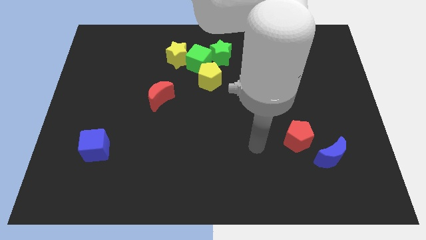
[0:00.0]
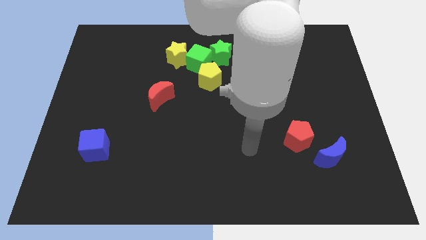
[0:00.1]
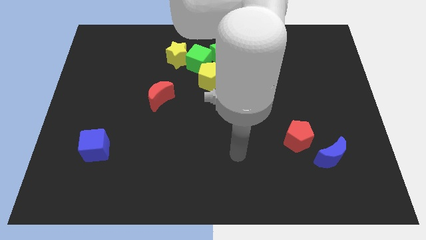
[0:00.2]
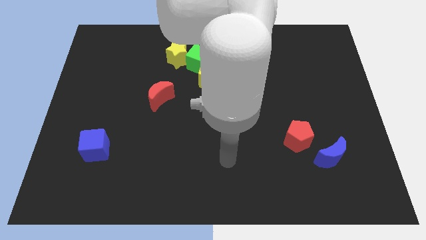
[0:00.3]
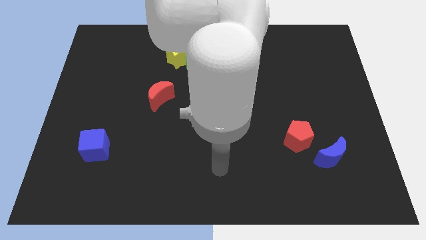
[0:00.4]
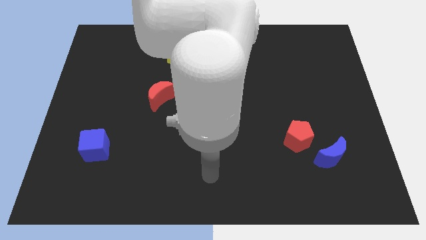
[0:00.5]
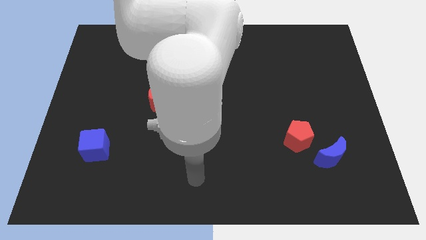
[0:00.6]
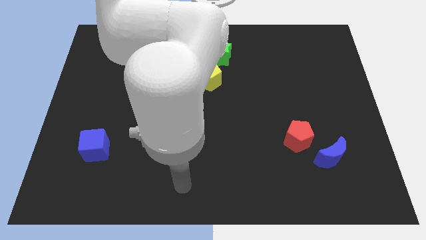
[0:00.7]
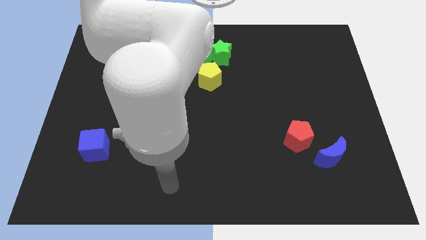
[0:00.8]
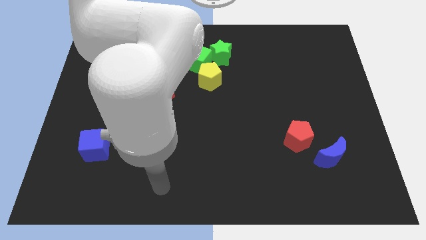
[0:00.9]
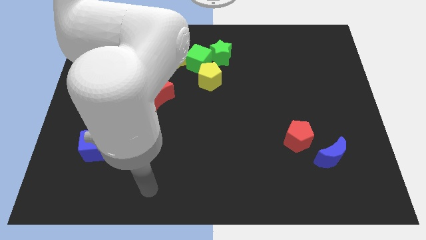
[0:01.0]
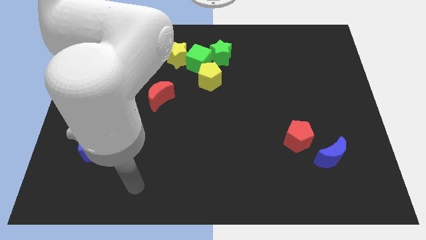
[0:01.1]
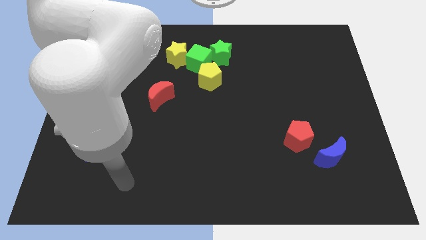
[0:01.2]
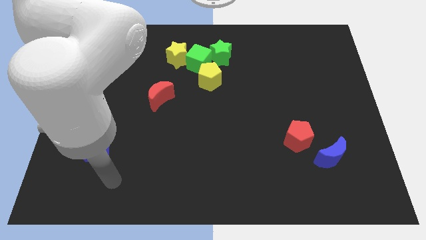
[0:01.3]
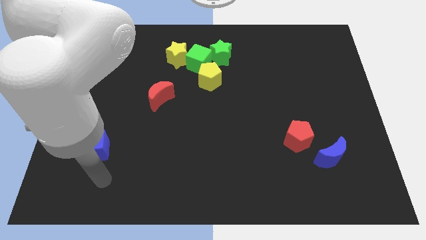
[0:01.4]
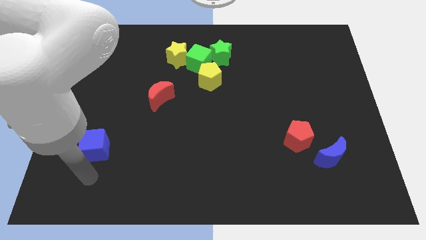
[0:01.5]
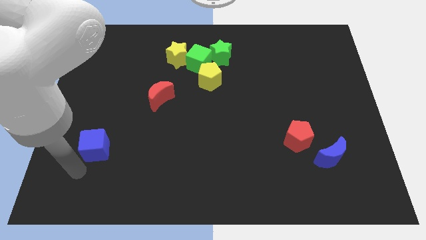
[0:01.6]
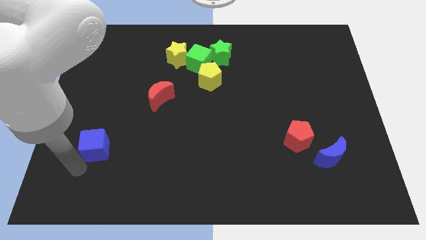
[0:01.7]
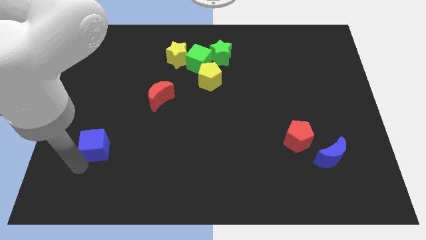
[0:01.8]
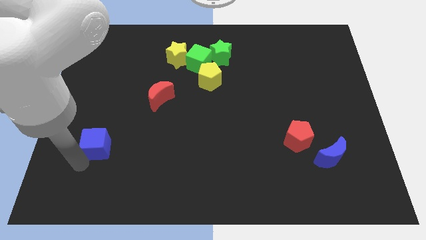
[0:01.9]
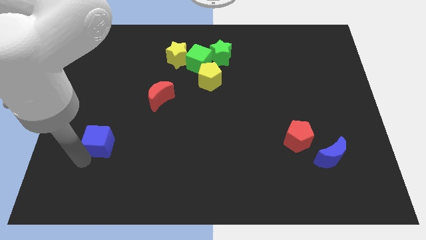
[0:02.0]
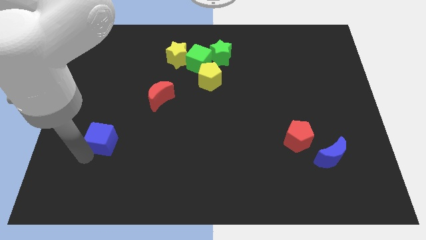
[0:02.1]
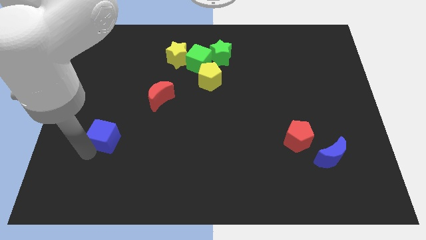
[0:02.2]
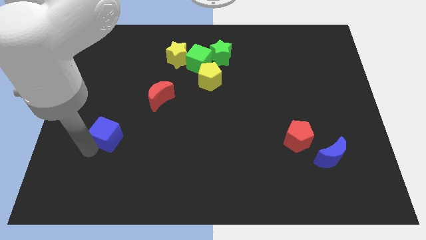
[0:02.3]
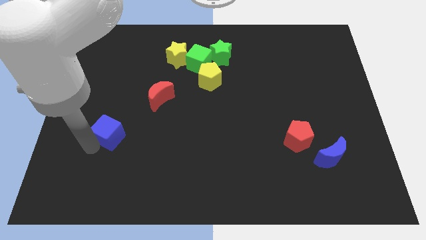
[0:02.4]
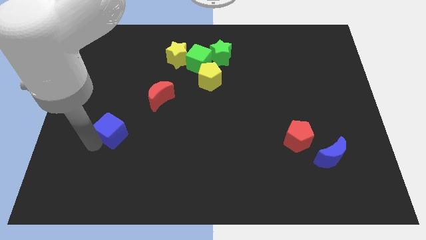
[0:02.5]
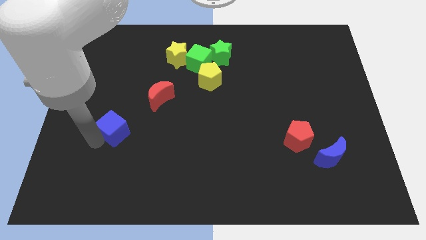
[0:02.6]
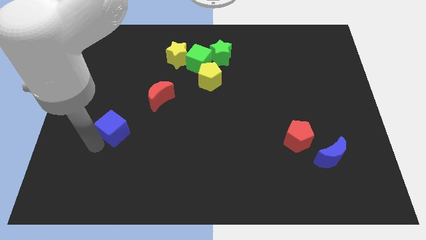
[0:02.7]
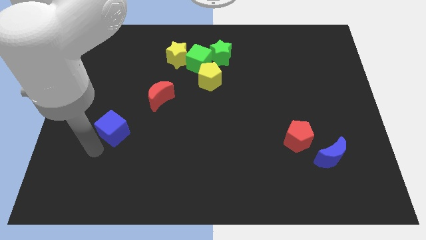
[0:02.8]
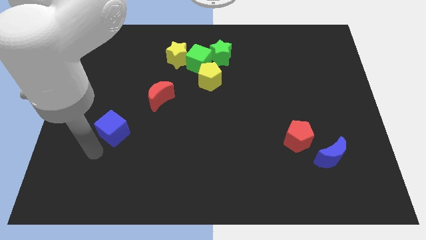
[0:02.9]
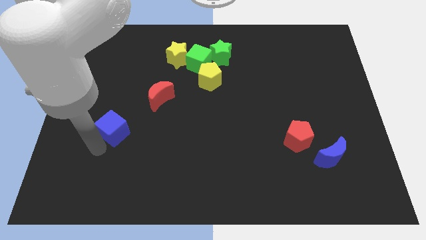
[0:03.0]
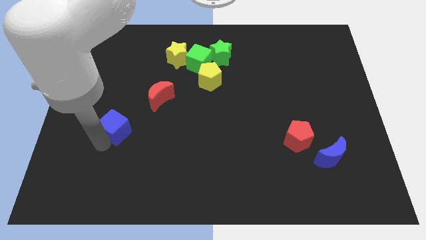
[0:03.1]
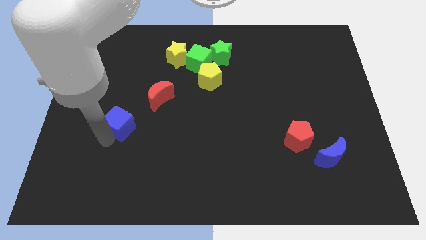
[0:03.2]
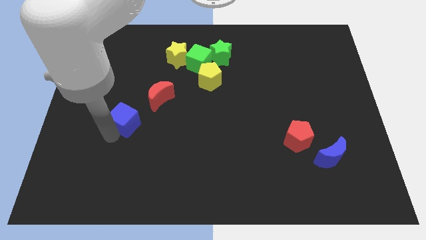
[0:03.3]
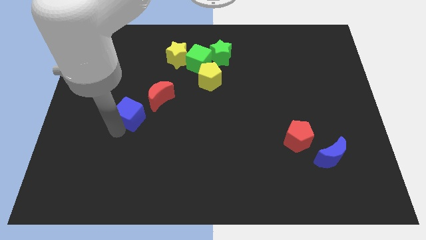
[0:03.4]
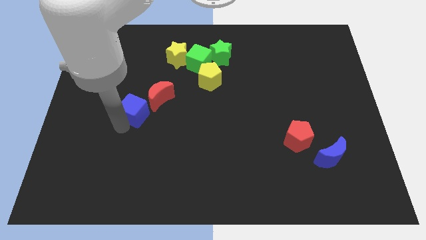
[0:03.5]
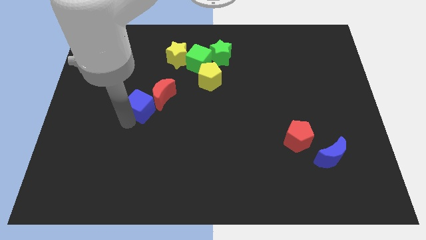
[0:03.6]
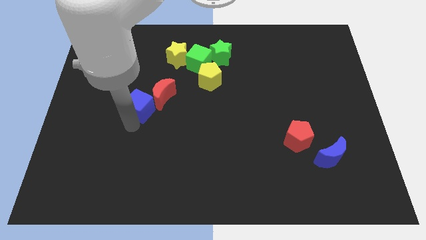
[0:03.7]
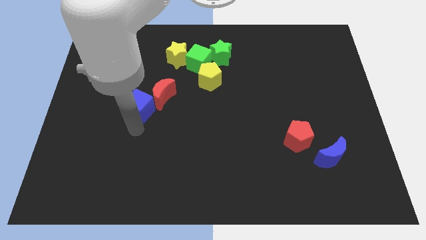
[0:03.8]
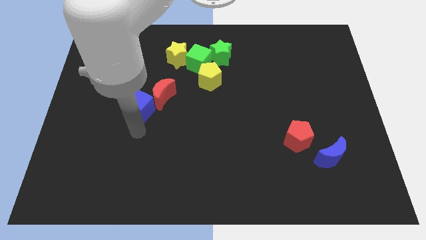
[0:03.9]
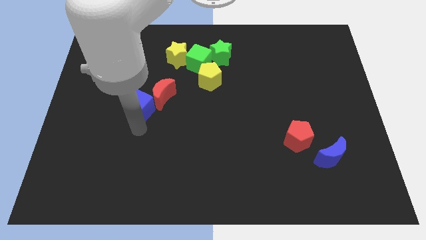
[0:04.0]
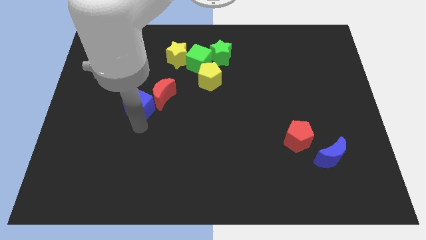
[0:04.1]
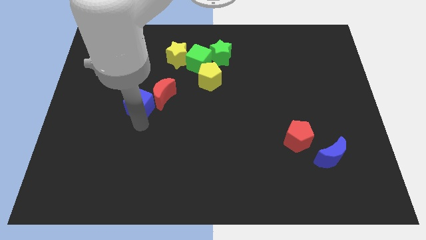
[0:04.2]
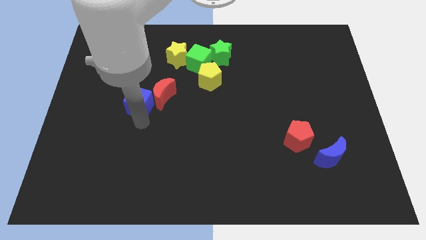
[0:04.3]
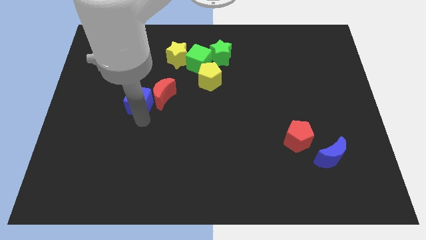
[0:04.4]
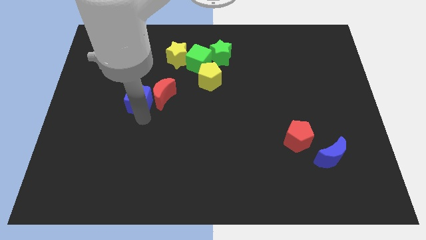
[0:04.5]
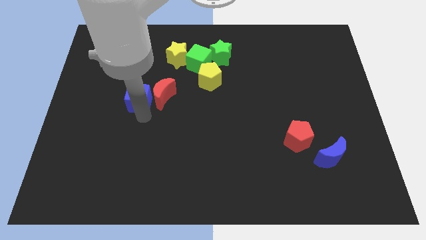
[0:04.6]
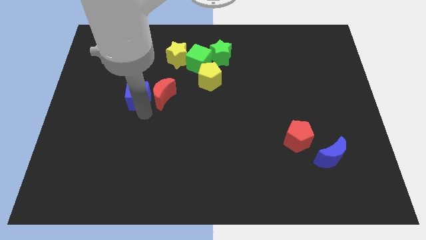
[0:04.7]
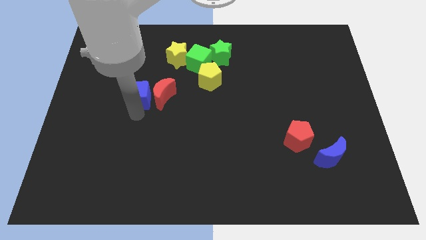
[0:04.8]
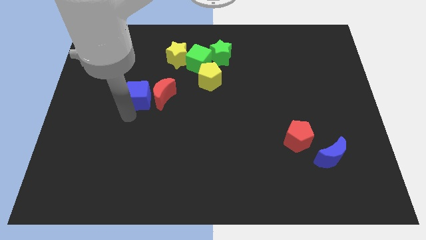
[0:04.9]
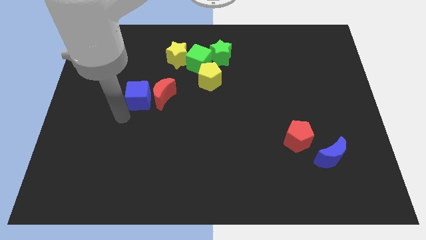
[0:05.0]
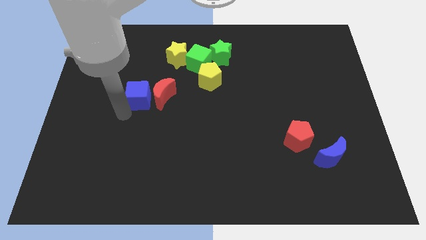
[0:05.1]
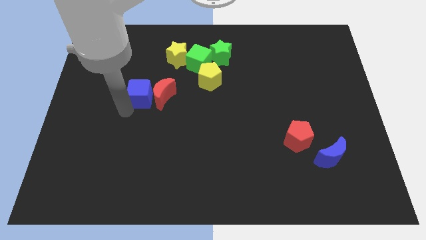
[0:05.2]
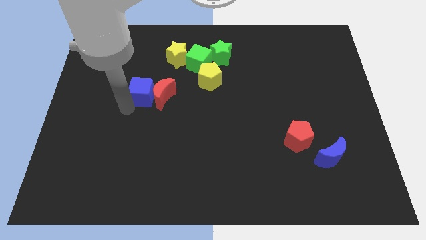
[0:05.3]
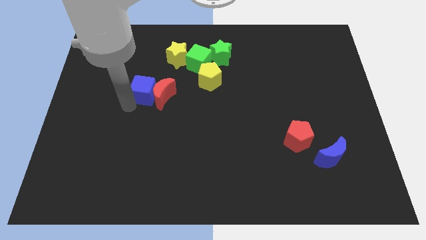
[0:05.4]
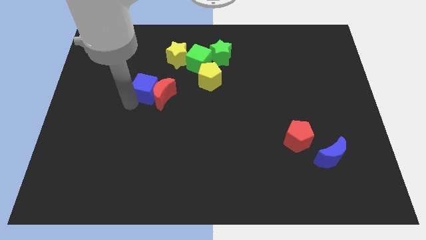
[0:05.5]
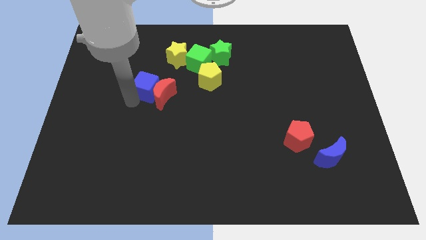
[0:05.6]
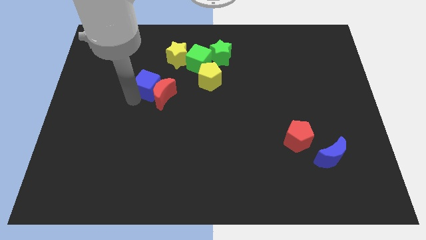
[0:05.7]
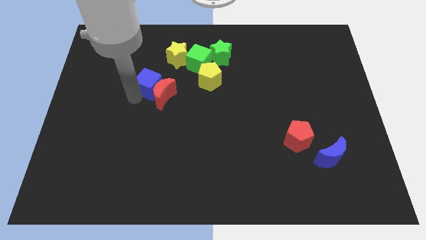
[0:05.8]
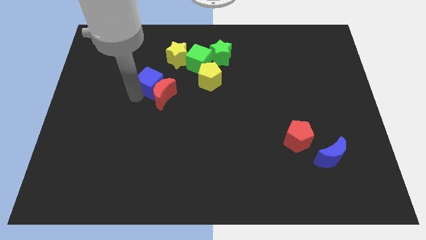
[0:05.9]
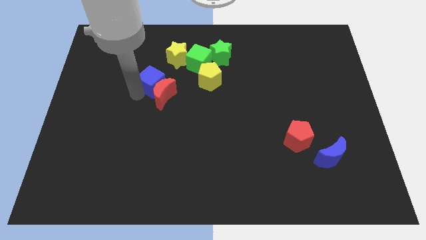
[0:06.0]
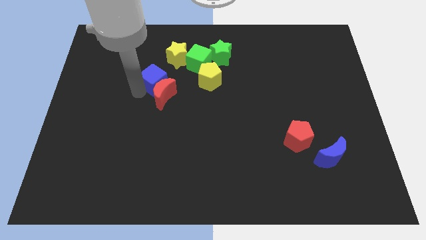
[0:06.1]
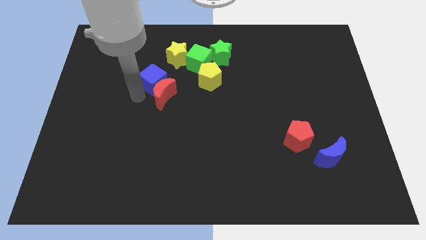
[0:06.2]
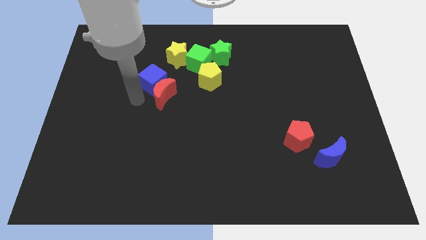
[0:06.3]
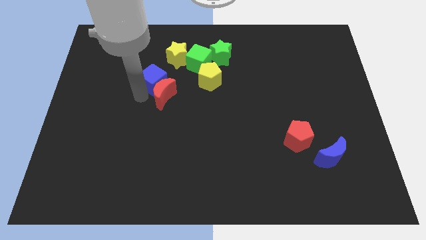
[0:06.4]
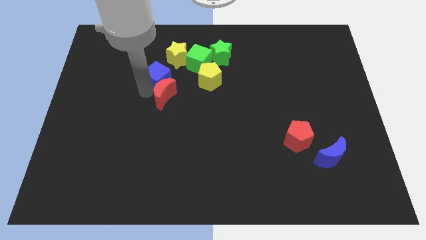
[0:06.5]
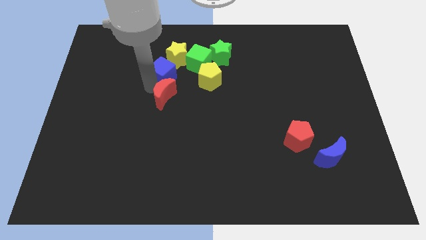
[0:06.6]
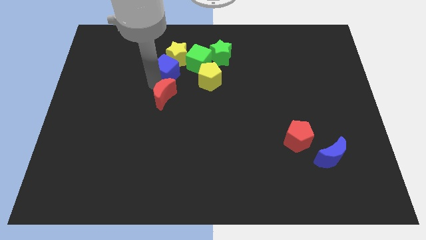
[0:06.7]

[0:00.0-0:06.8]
put the blue cube towards the yellow star

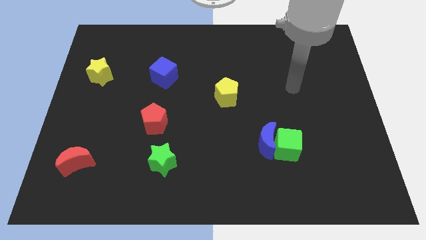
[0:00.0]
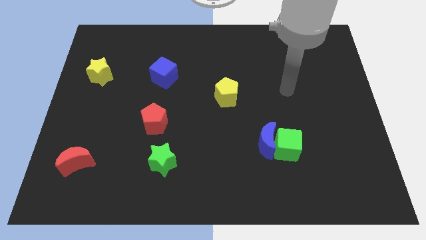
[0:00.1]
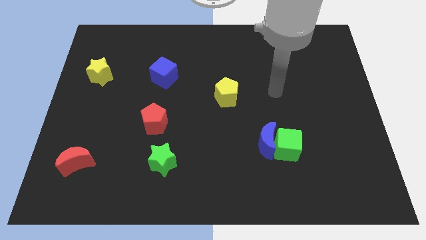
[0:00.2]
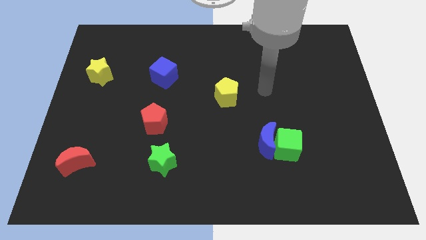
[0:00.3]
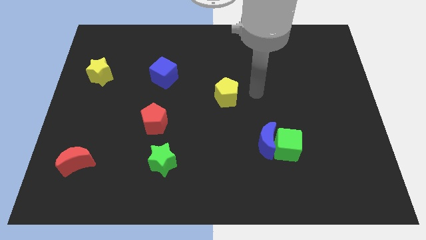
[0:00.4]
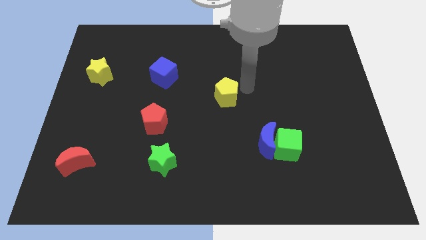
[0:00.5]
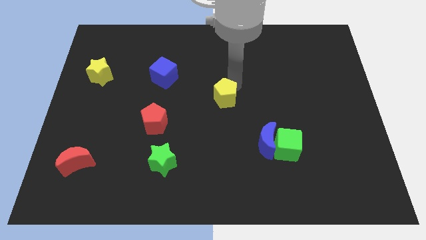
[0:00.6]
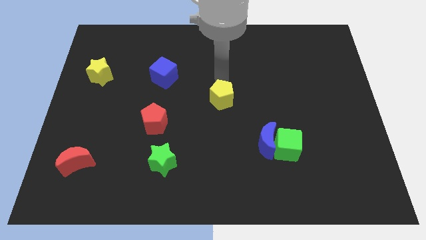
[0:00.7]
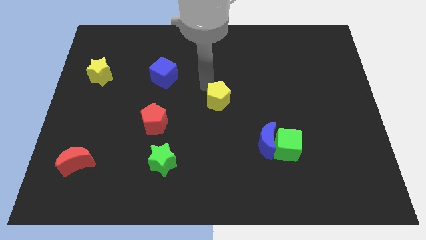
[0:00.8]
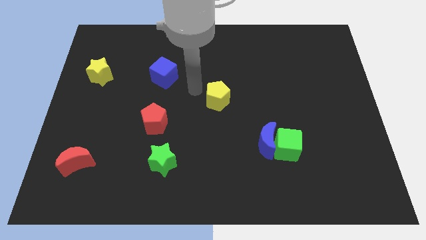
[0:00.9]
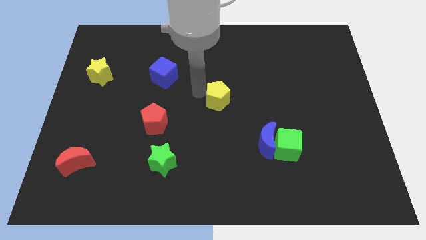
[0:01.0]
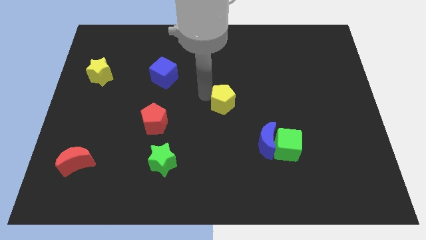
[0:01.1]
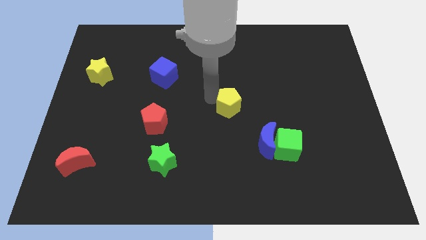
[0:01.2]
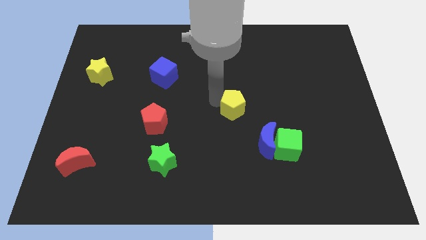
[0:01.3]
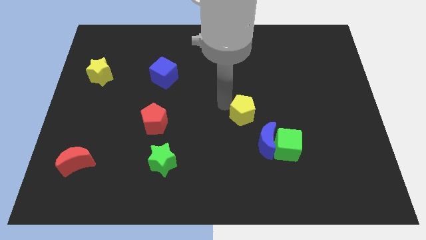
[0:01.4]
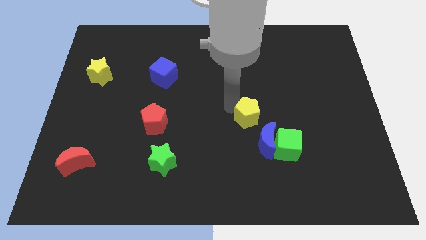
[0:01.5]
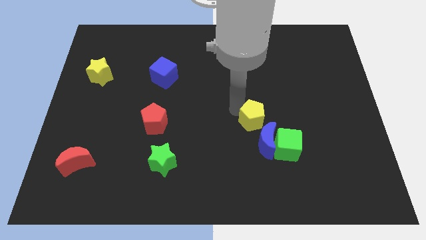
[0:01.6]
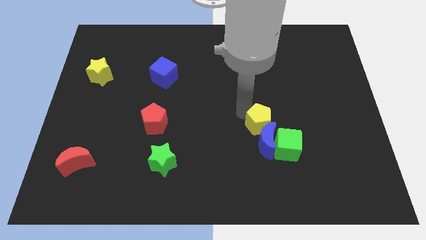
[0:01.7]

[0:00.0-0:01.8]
slide the yellow pentagon next to the blue moon
